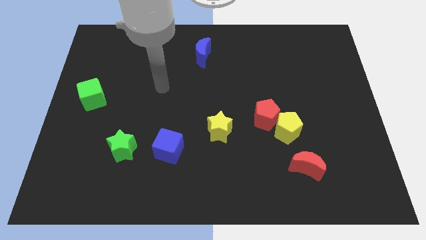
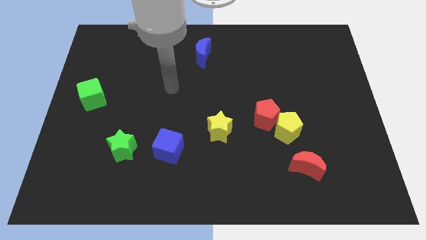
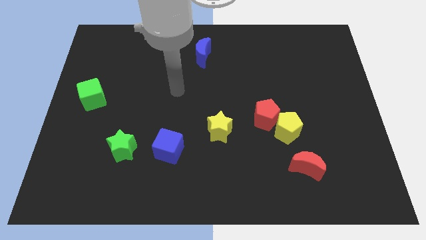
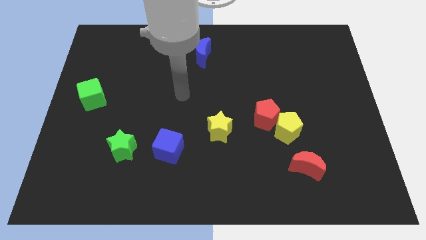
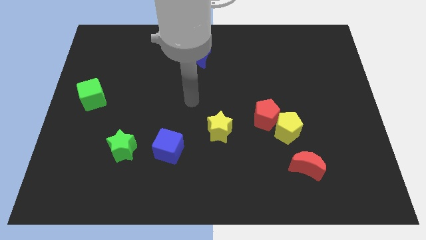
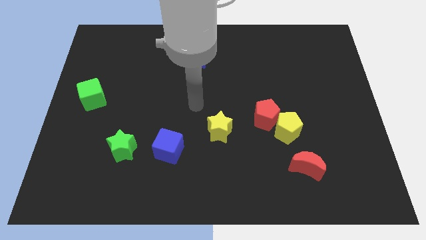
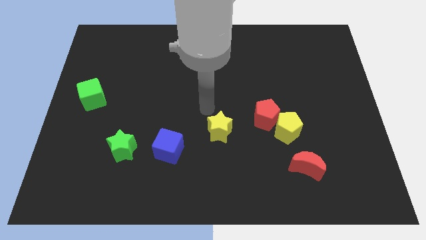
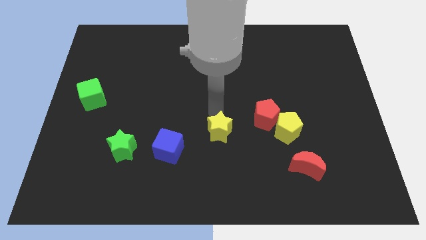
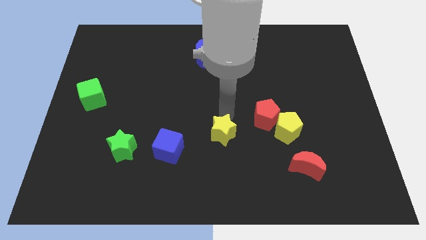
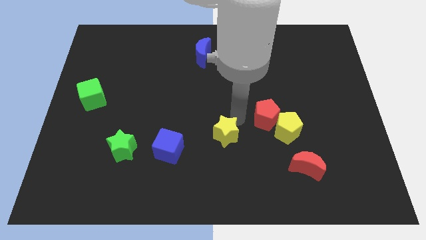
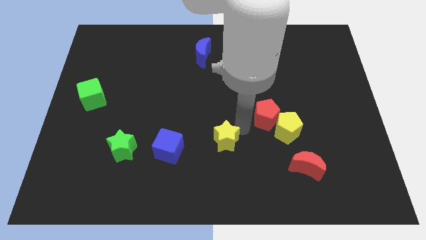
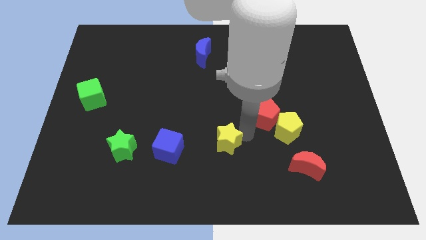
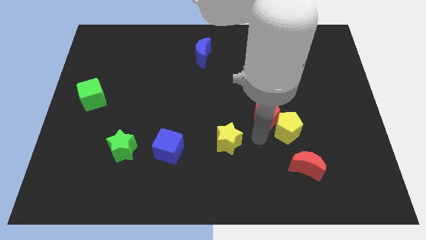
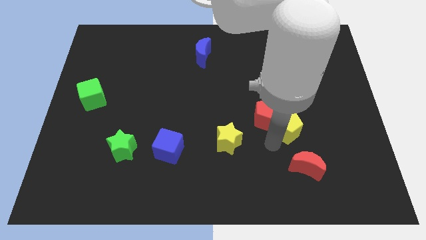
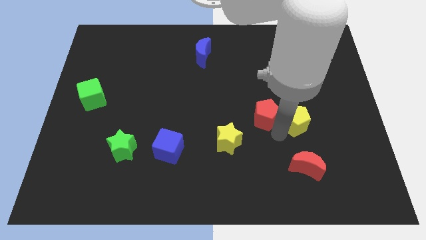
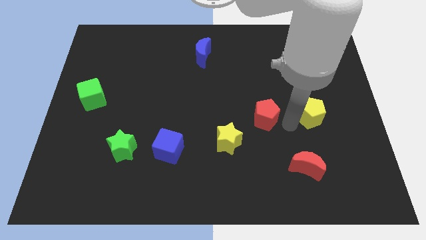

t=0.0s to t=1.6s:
separate the red pentagon from the yellow pentagon

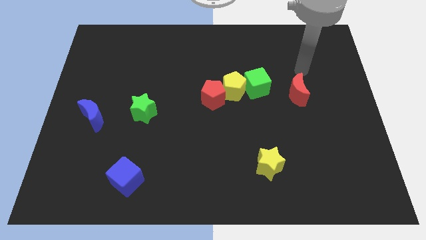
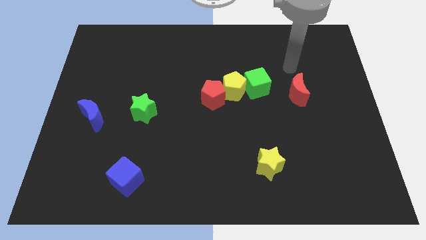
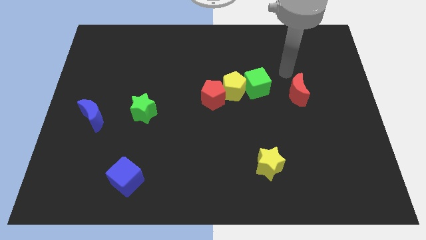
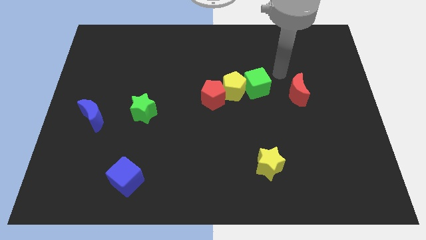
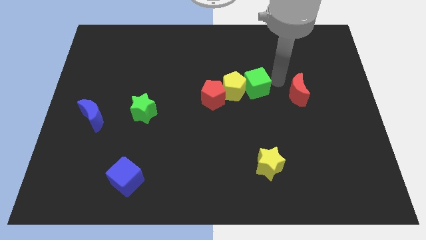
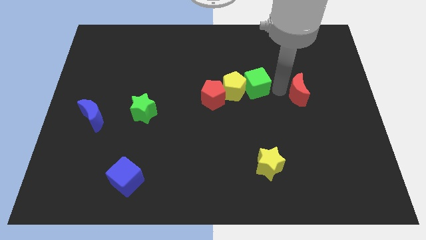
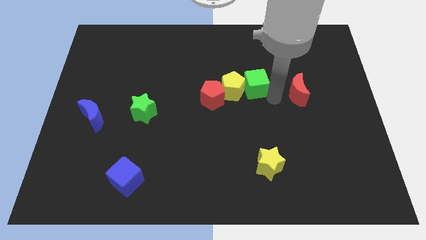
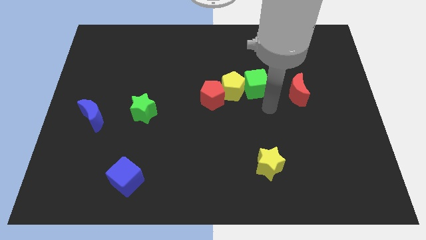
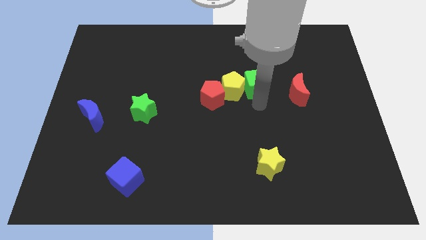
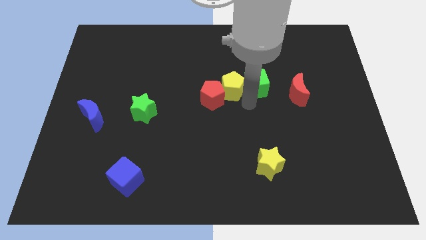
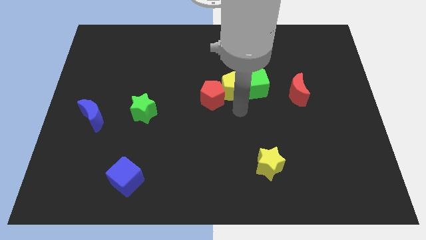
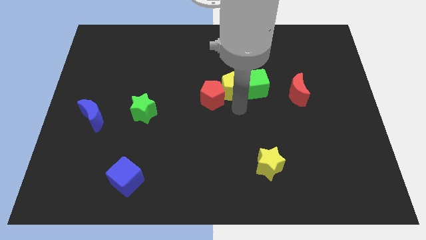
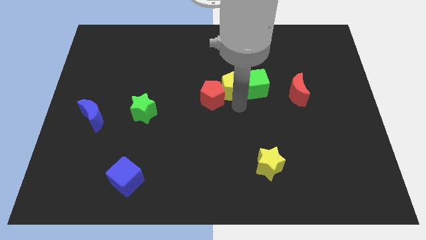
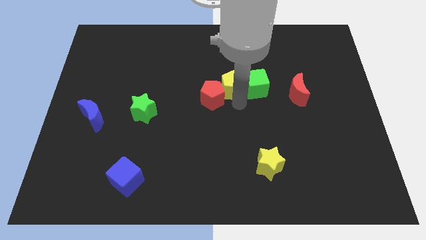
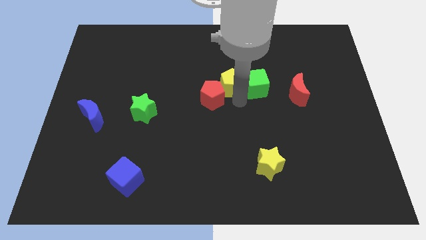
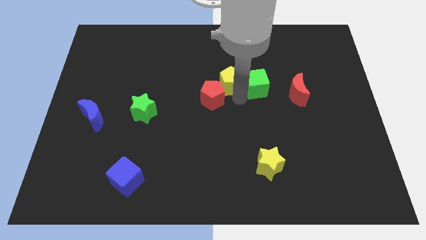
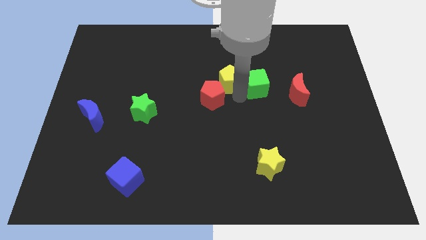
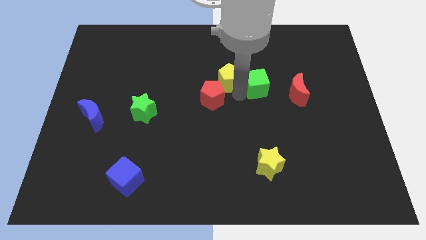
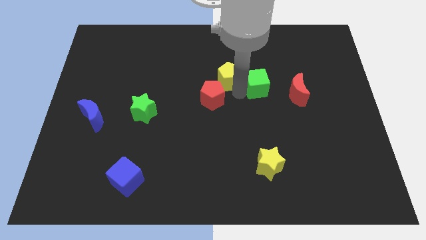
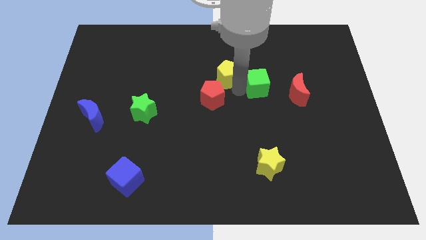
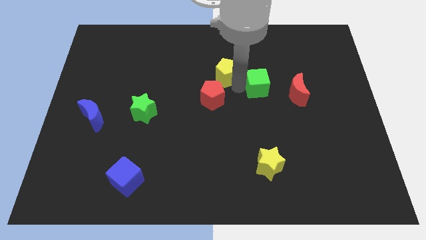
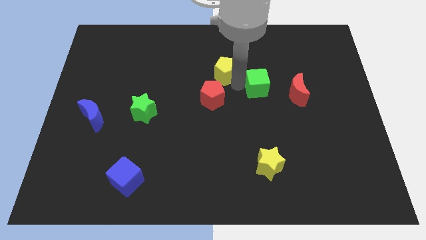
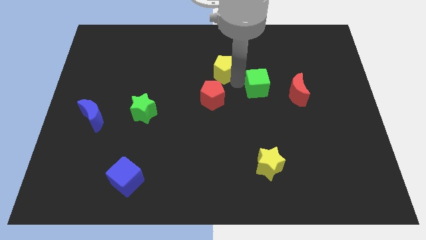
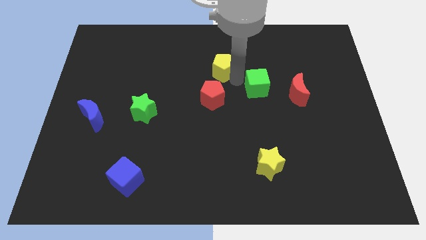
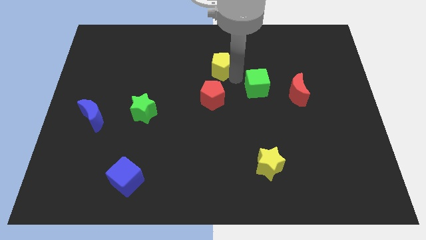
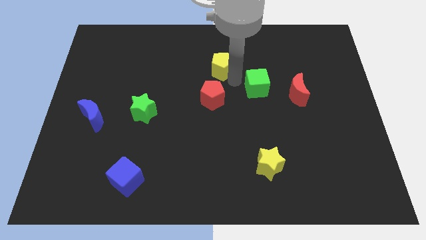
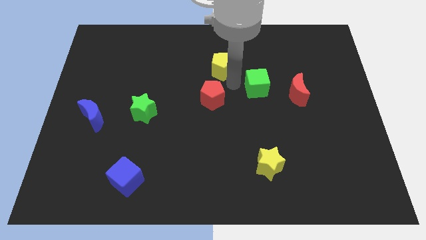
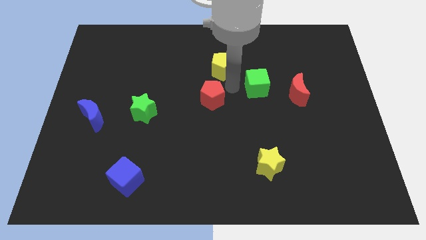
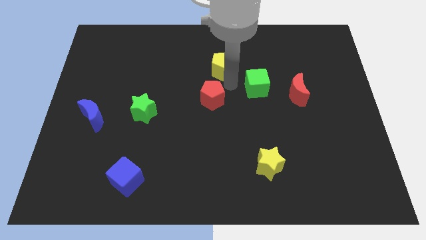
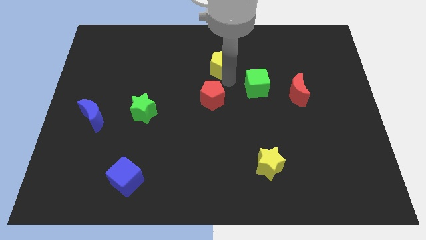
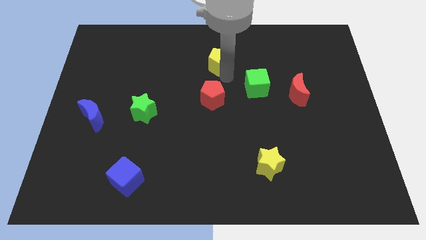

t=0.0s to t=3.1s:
move the yellow pentagon away from the green cube and red pentagon

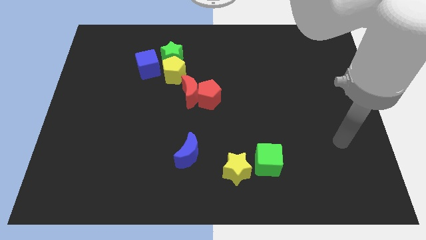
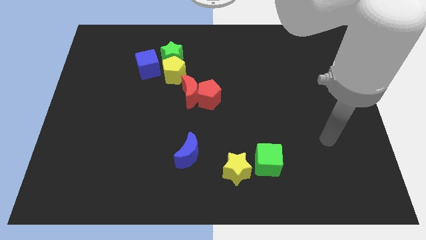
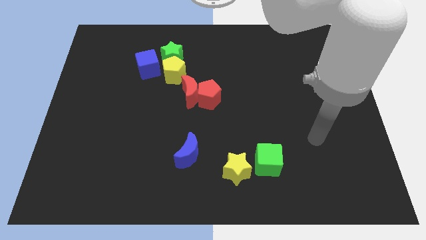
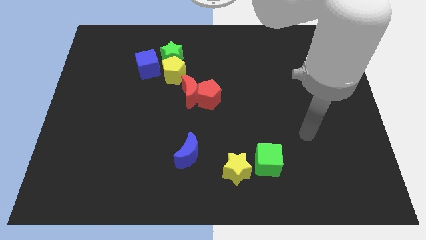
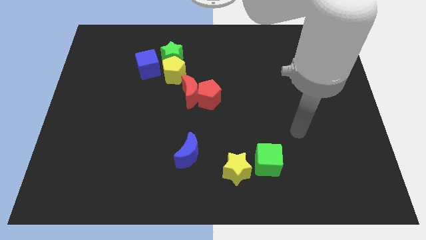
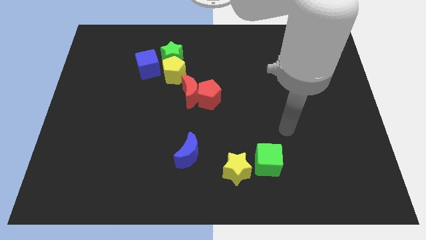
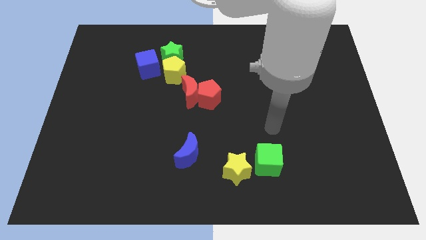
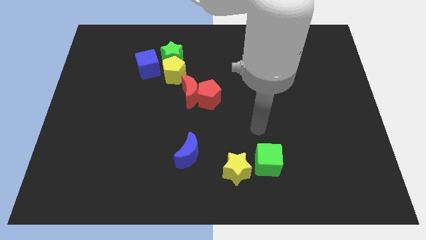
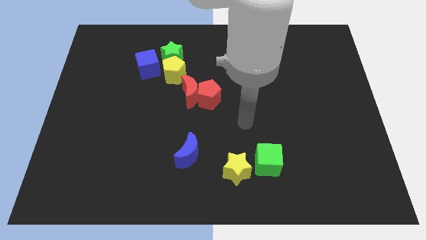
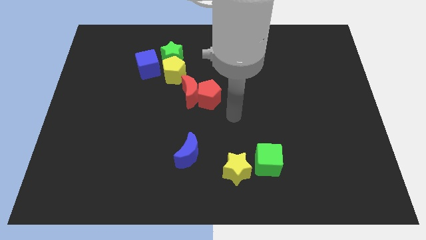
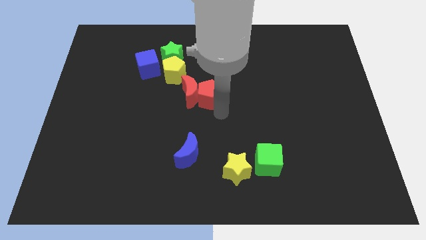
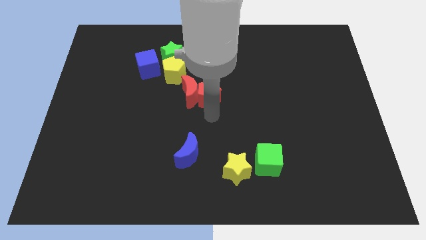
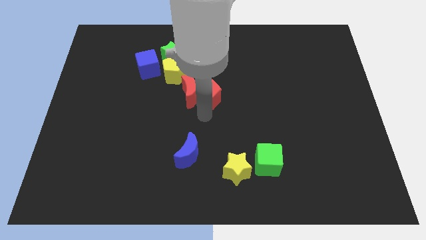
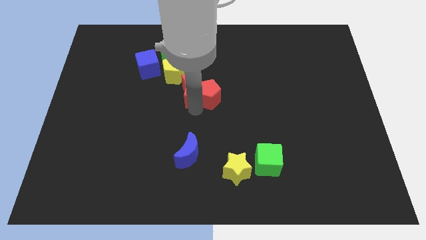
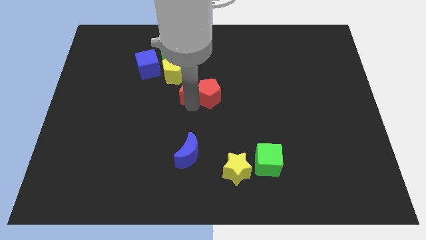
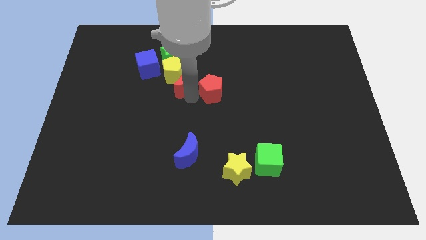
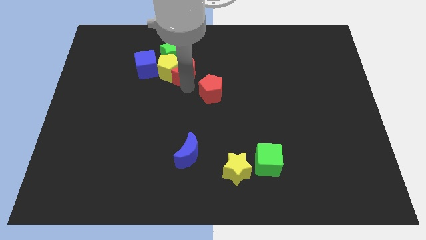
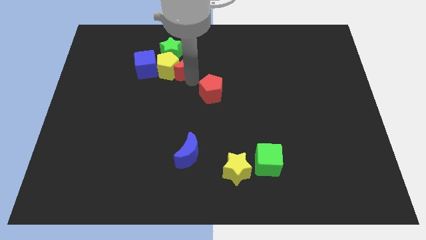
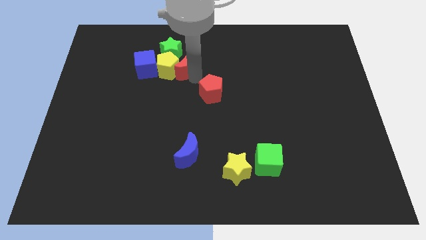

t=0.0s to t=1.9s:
separate the red pentagon from the red moon

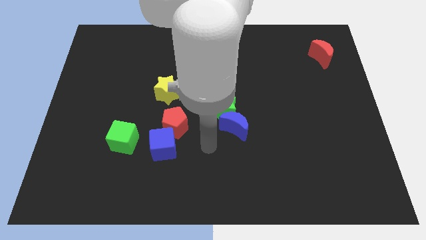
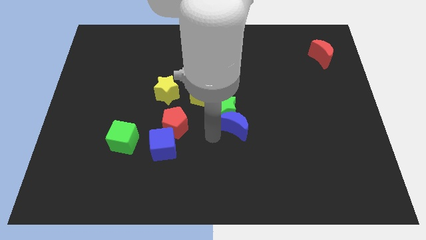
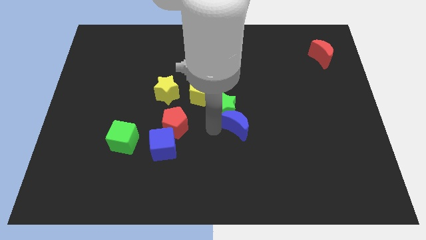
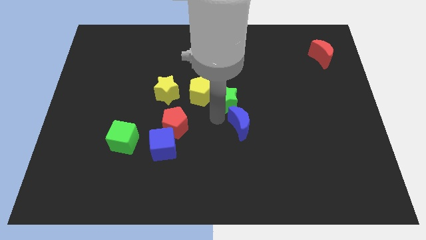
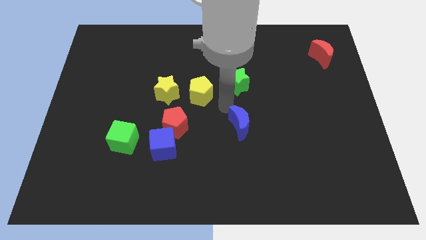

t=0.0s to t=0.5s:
move the blue moon away from the green star

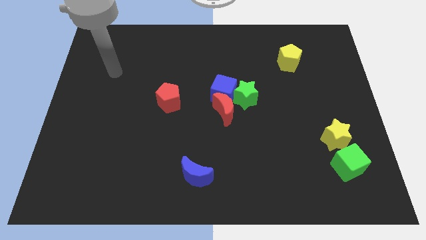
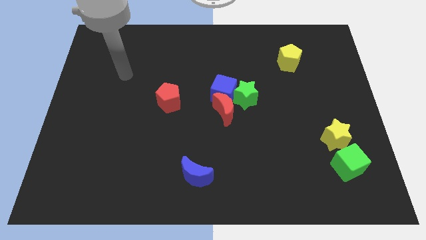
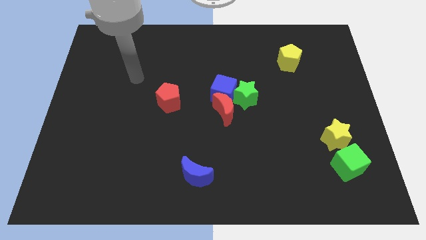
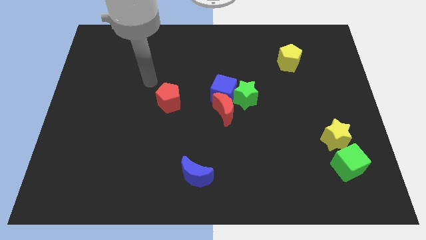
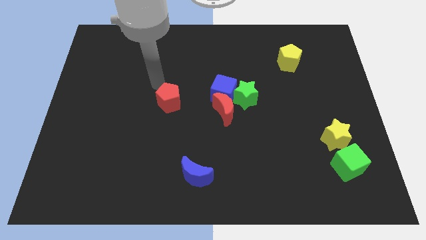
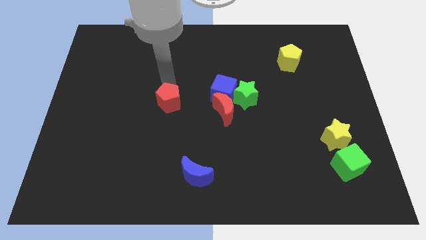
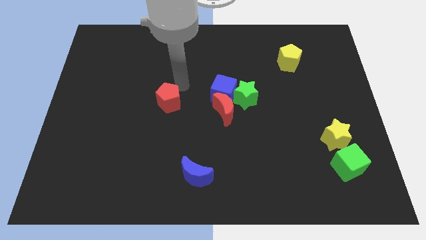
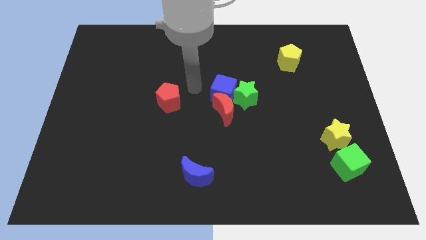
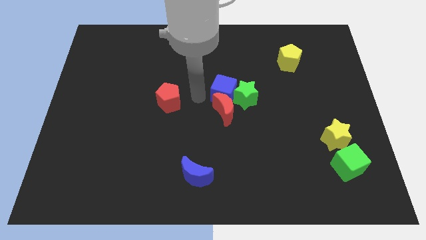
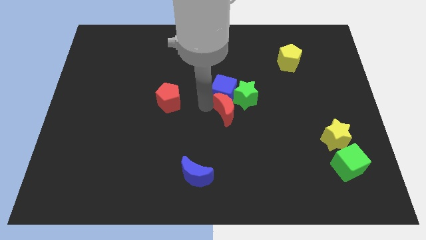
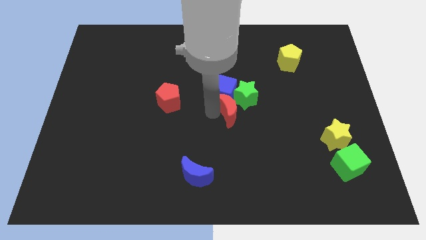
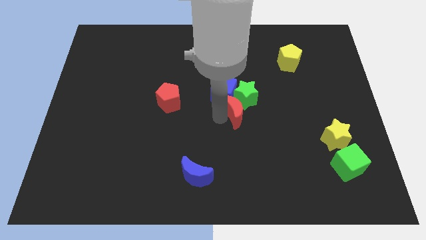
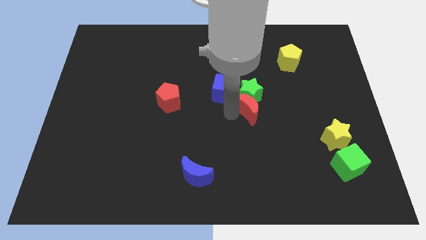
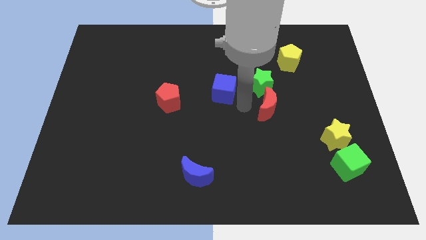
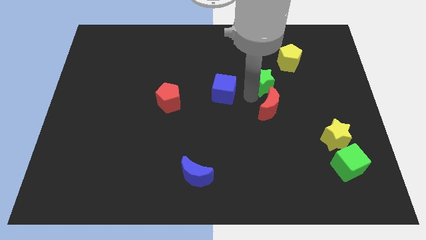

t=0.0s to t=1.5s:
pull the blue cube apart from the green star and red moon

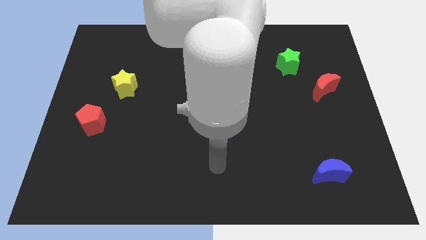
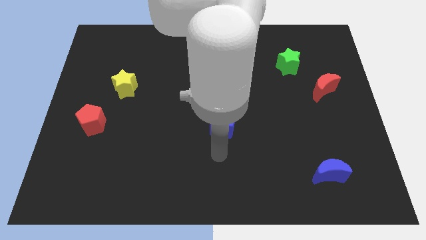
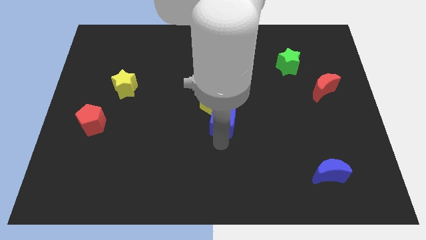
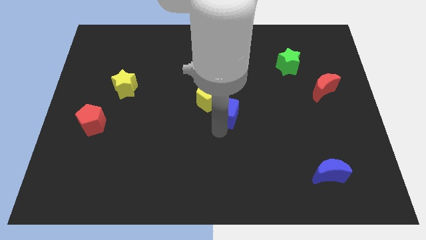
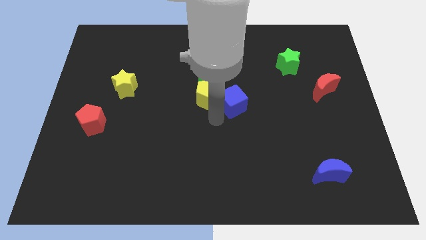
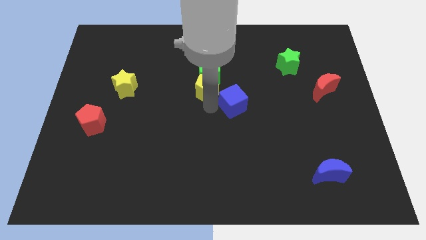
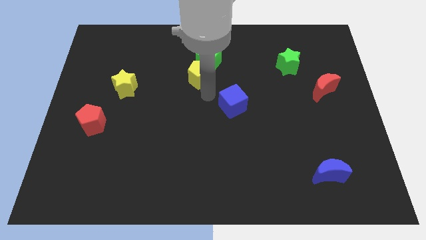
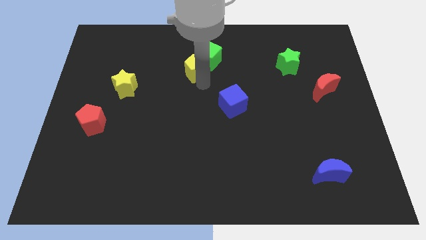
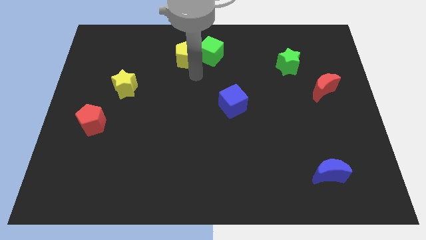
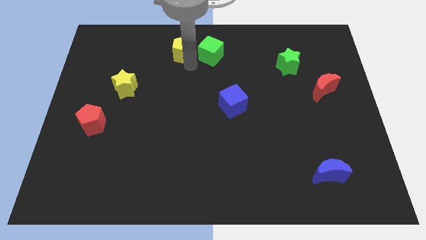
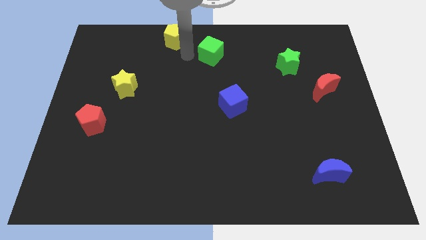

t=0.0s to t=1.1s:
move the green cube away from the yellow pentagon
